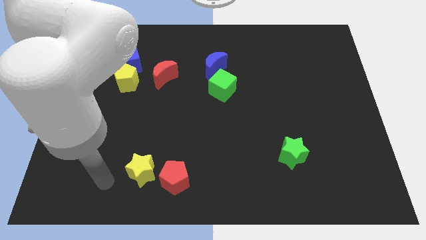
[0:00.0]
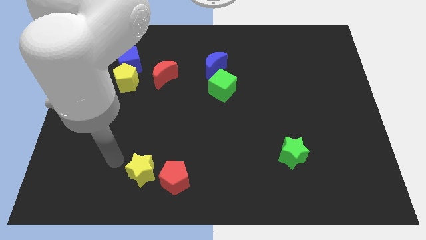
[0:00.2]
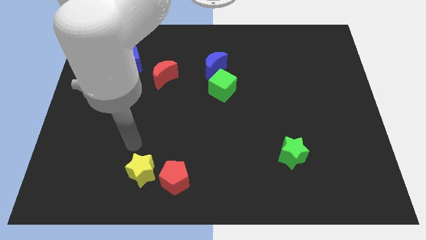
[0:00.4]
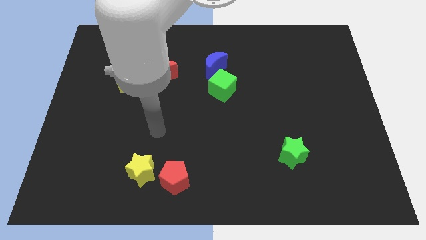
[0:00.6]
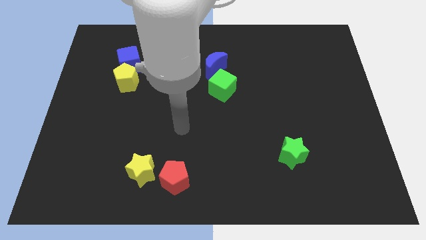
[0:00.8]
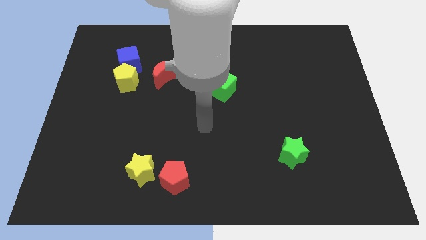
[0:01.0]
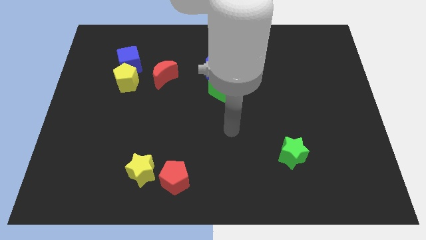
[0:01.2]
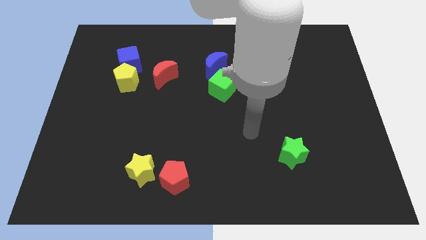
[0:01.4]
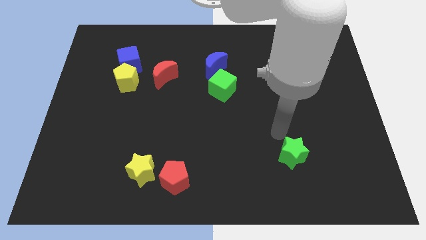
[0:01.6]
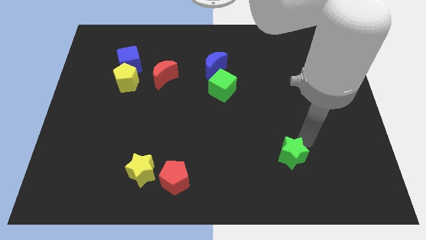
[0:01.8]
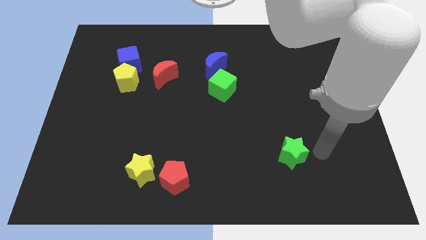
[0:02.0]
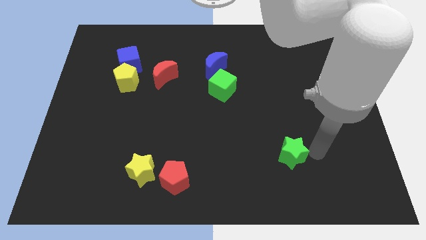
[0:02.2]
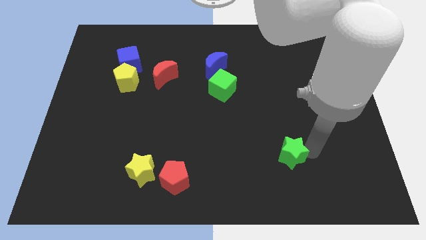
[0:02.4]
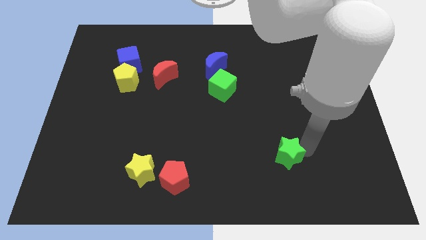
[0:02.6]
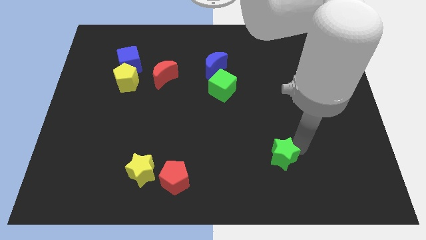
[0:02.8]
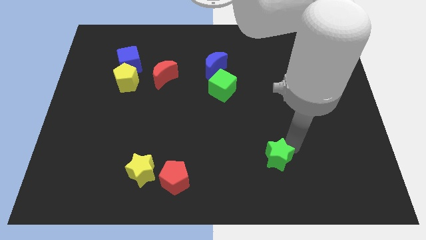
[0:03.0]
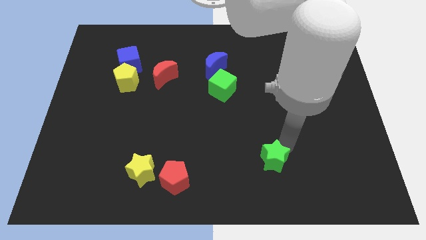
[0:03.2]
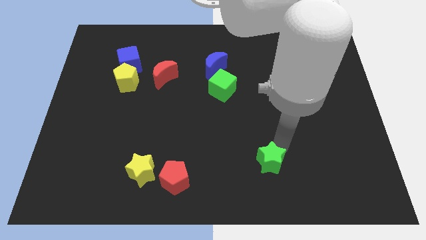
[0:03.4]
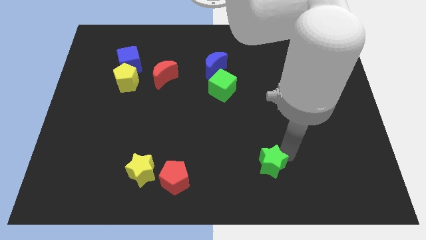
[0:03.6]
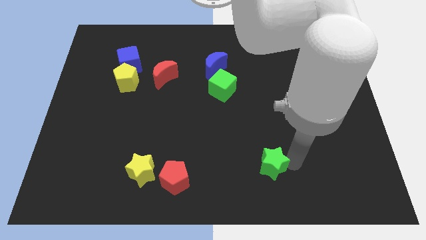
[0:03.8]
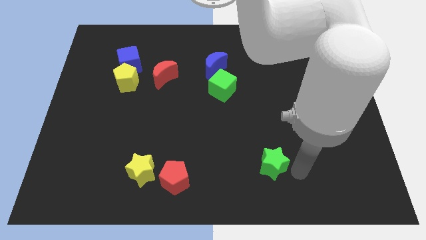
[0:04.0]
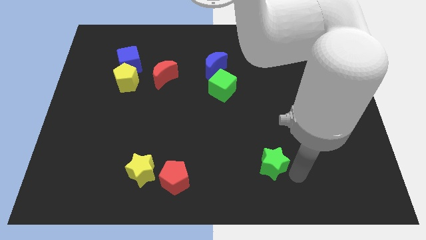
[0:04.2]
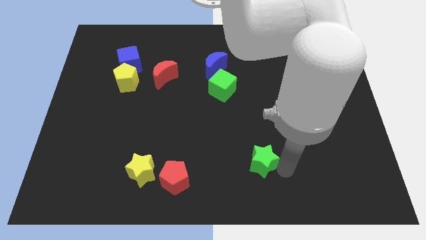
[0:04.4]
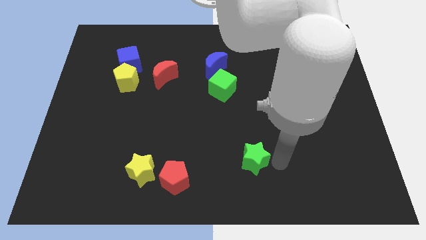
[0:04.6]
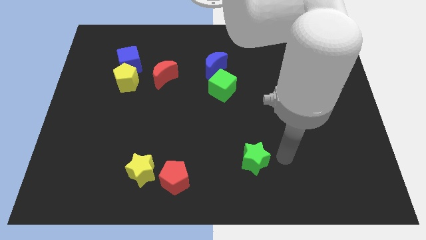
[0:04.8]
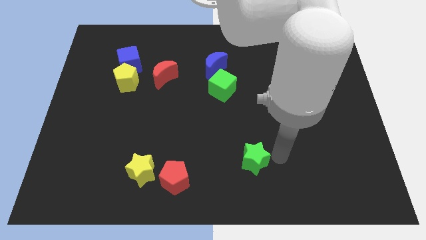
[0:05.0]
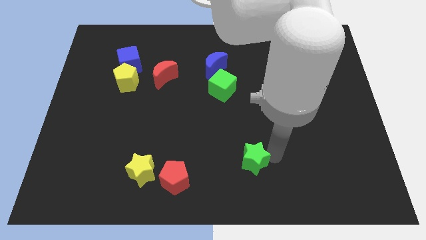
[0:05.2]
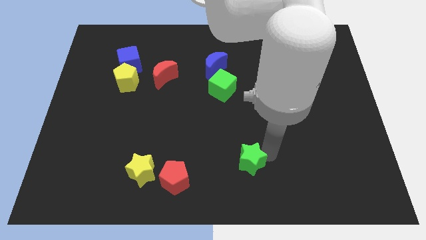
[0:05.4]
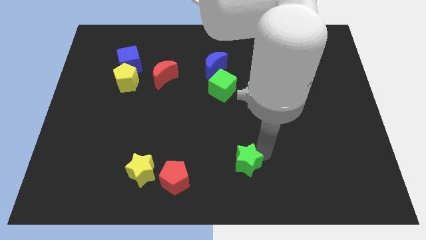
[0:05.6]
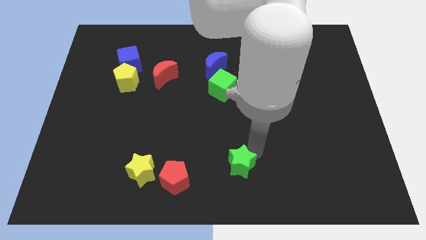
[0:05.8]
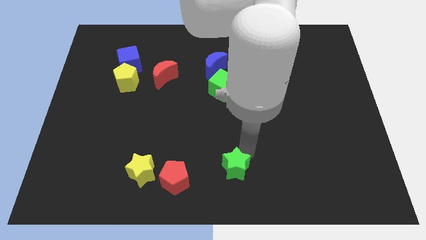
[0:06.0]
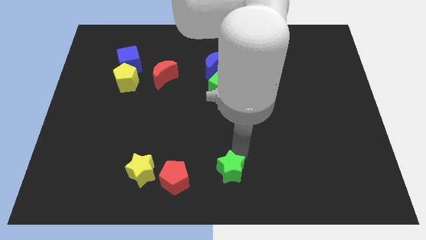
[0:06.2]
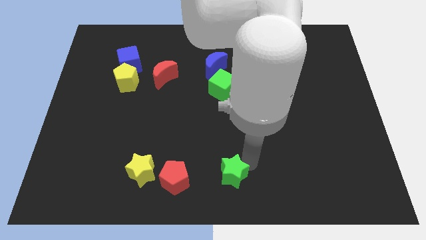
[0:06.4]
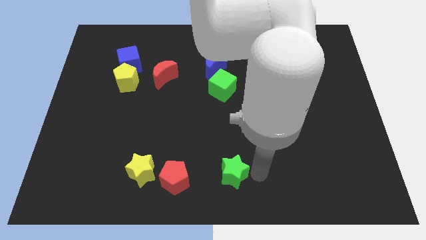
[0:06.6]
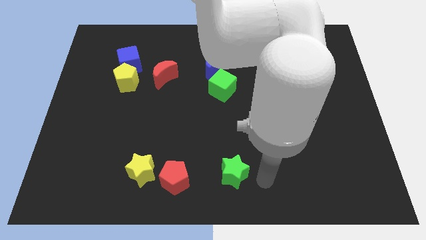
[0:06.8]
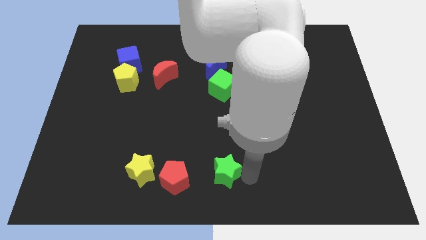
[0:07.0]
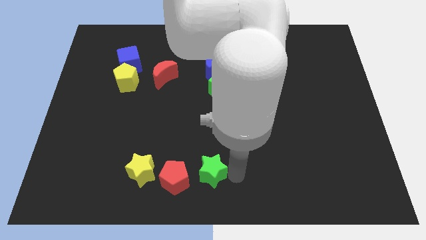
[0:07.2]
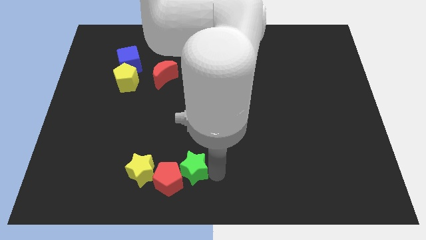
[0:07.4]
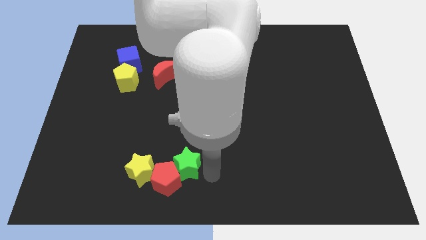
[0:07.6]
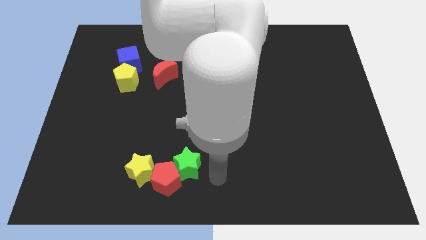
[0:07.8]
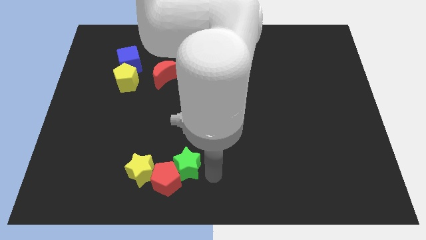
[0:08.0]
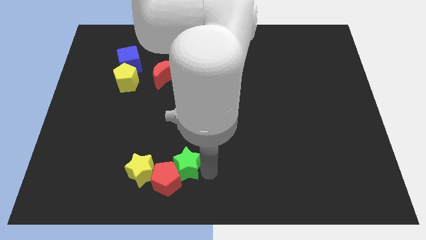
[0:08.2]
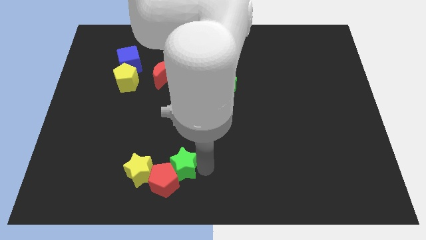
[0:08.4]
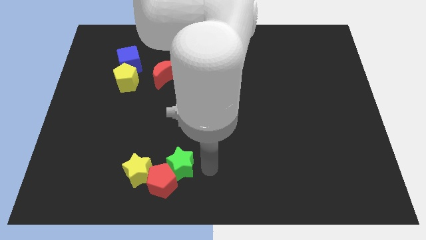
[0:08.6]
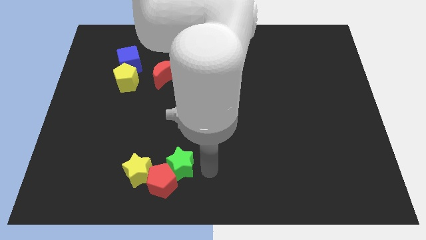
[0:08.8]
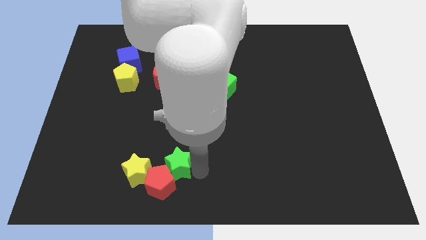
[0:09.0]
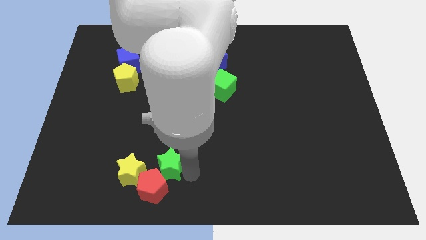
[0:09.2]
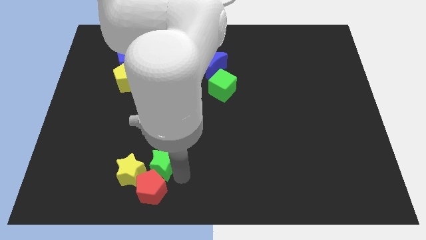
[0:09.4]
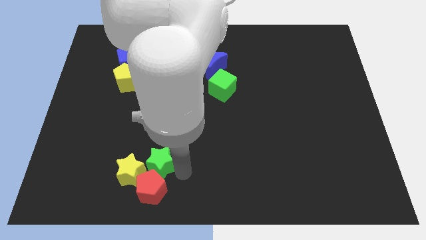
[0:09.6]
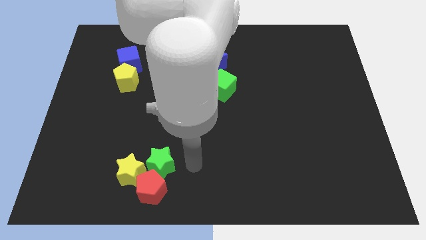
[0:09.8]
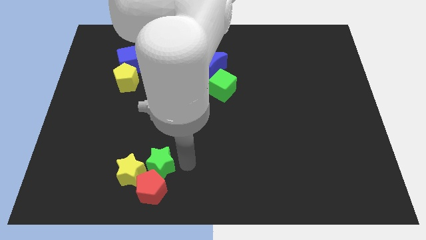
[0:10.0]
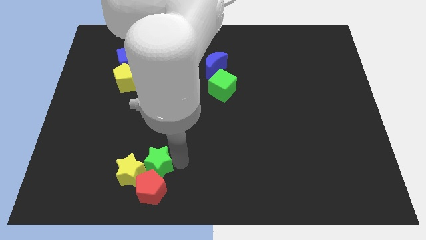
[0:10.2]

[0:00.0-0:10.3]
slide the green star diagonally up and to the left of the red pentagon
